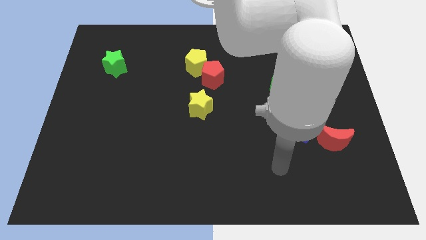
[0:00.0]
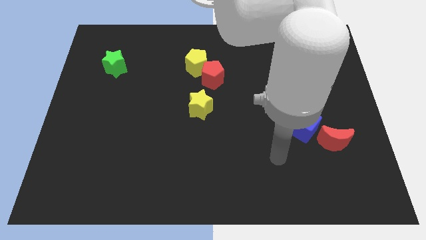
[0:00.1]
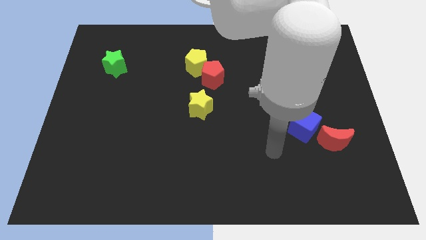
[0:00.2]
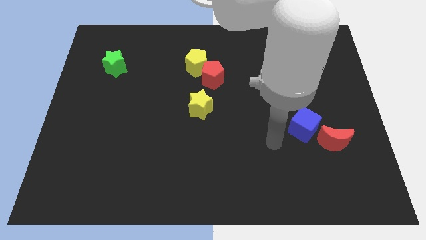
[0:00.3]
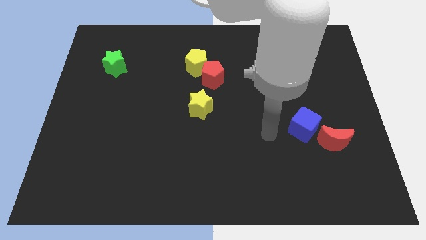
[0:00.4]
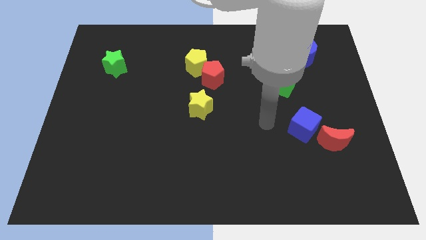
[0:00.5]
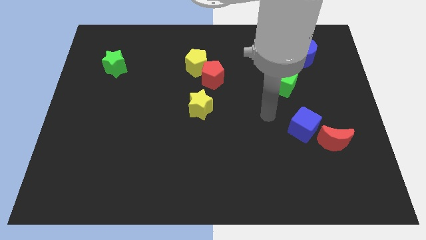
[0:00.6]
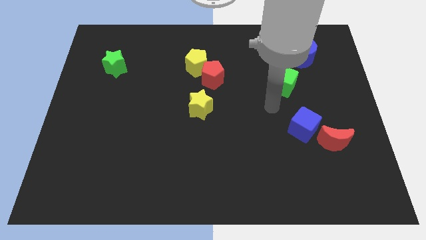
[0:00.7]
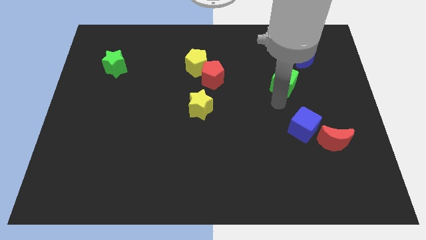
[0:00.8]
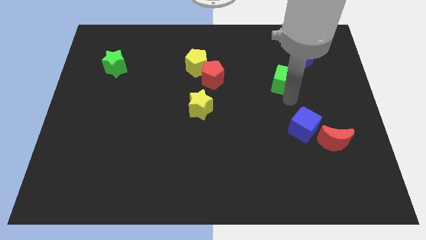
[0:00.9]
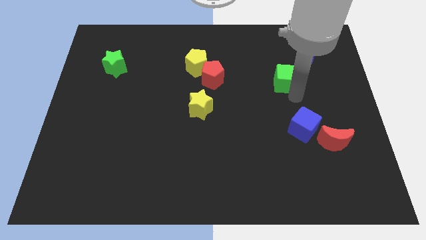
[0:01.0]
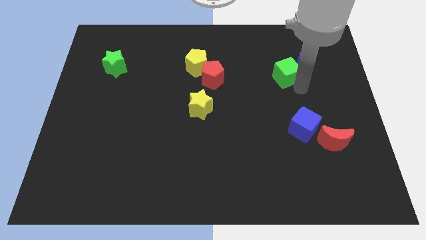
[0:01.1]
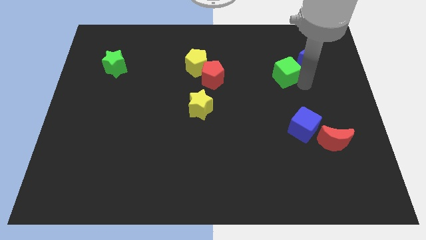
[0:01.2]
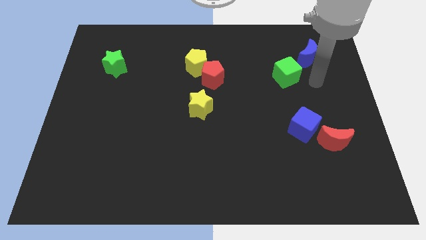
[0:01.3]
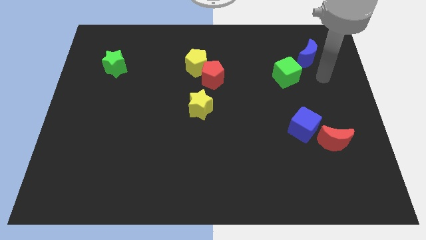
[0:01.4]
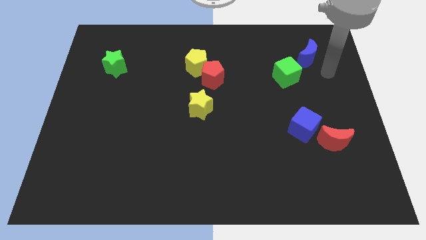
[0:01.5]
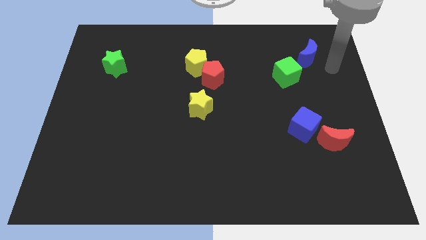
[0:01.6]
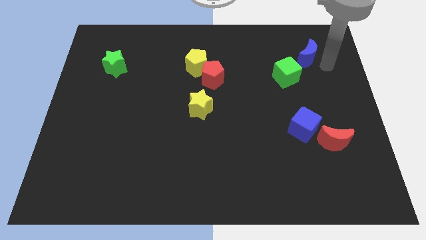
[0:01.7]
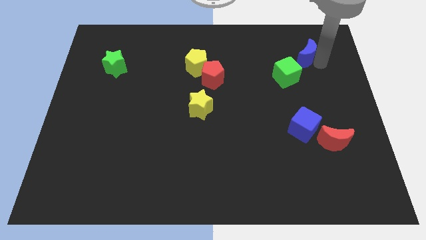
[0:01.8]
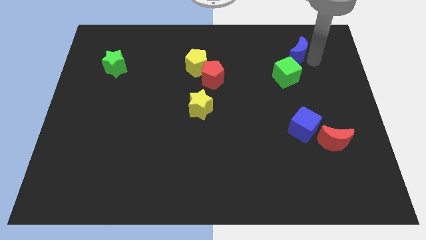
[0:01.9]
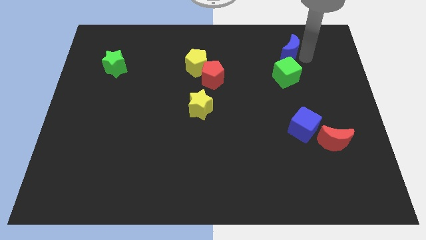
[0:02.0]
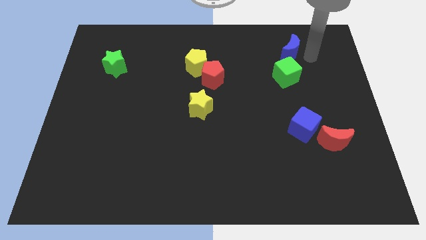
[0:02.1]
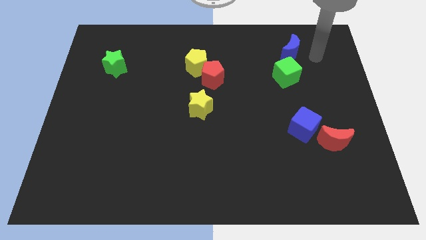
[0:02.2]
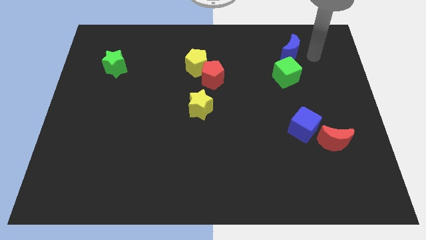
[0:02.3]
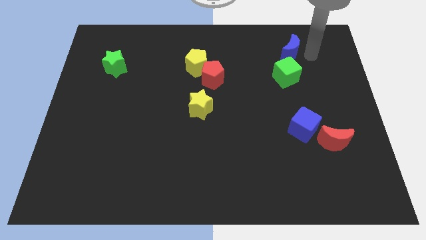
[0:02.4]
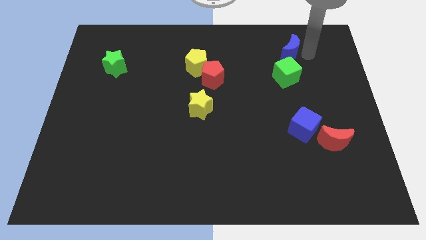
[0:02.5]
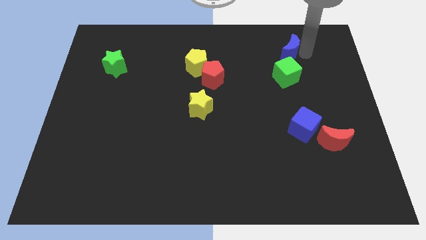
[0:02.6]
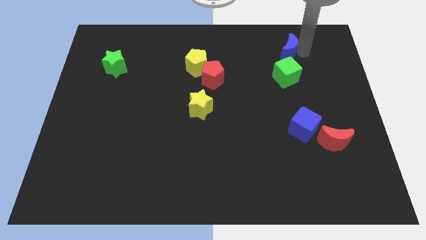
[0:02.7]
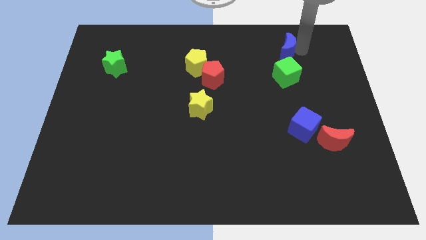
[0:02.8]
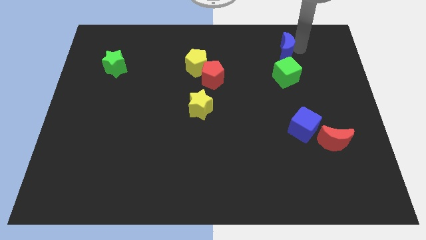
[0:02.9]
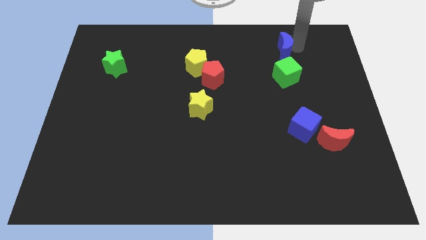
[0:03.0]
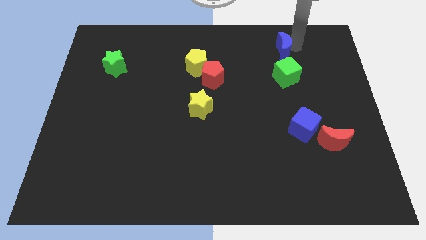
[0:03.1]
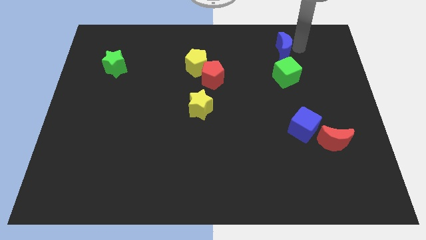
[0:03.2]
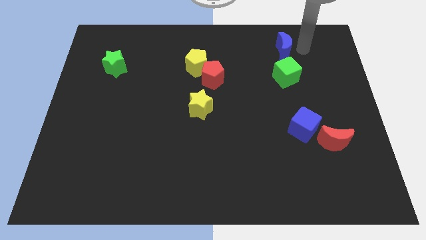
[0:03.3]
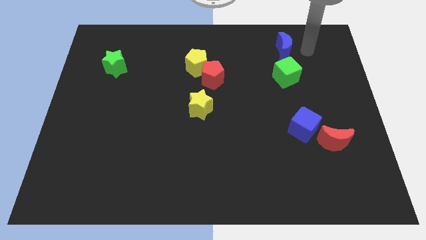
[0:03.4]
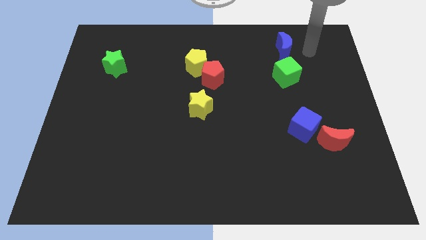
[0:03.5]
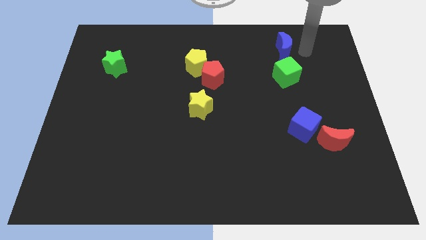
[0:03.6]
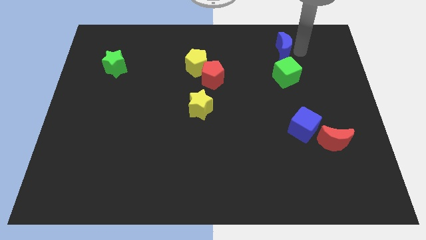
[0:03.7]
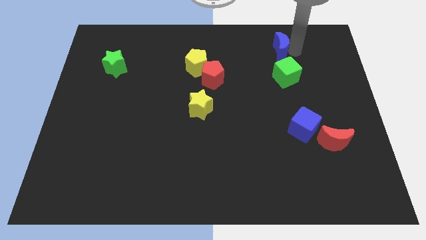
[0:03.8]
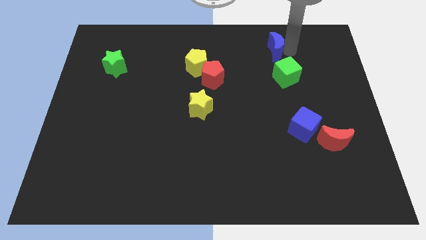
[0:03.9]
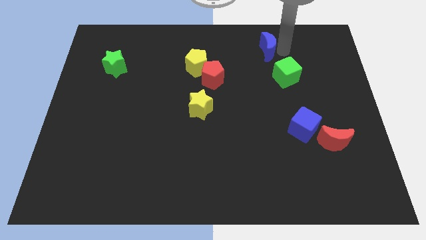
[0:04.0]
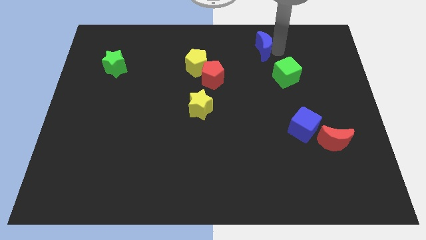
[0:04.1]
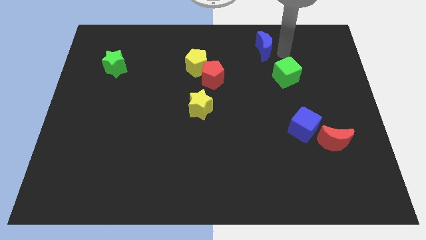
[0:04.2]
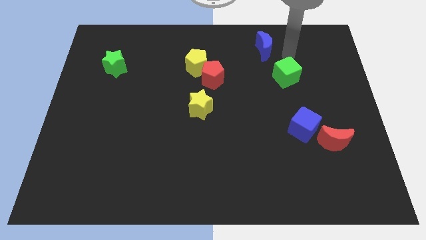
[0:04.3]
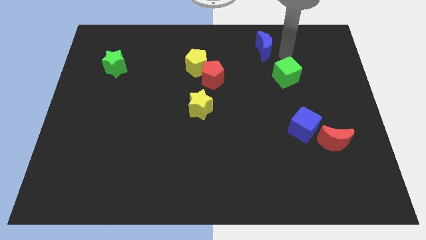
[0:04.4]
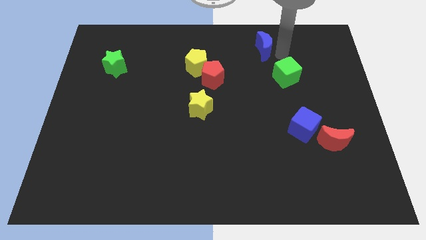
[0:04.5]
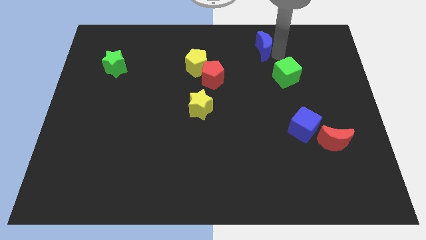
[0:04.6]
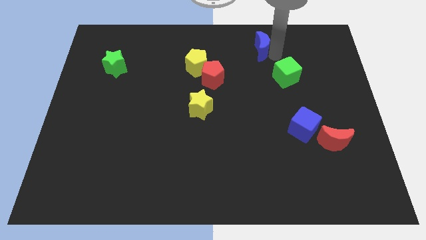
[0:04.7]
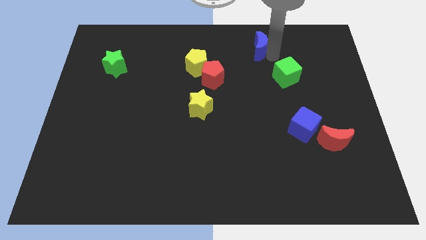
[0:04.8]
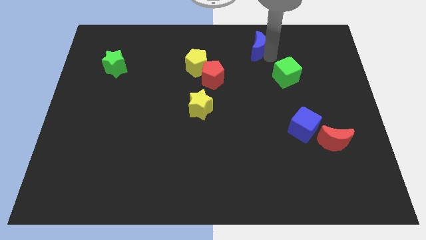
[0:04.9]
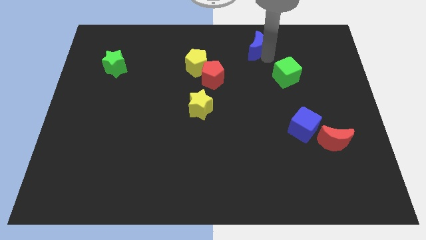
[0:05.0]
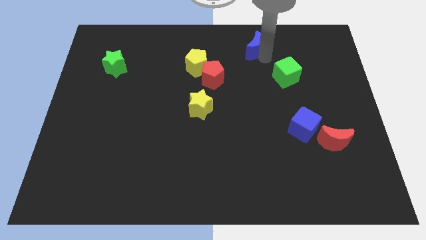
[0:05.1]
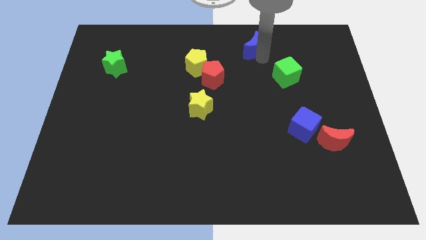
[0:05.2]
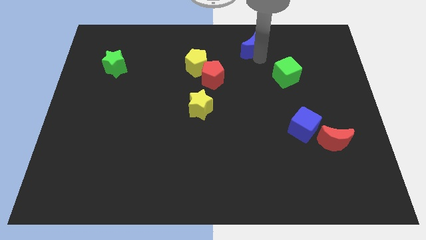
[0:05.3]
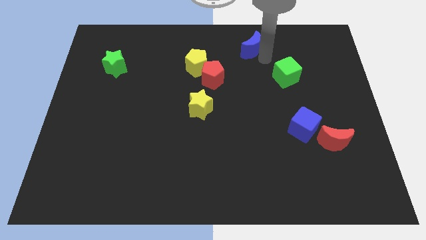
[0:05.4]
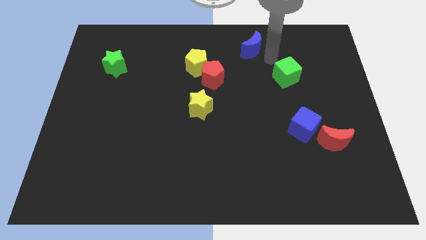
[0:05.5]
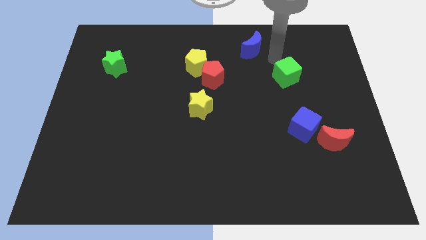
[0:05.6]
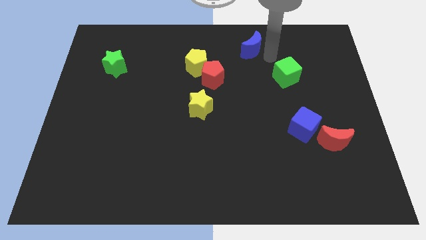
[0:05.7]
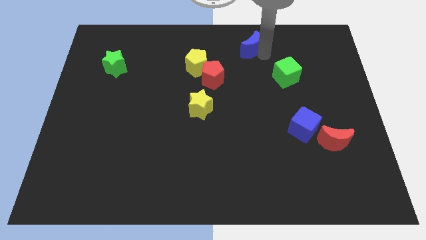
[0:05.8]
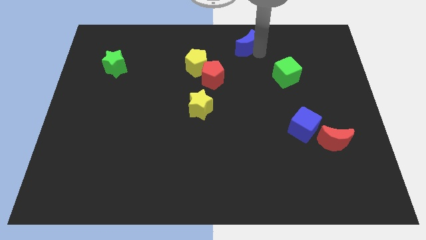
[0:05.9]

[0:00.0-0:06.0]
put the blue moon to the towards your base

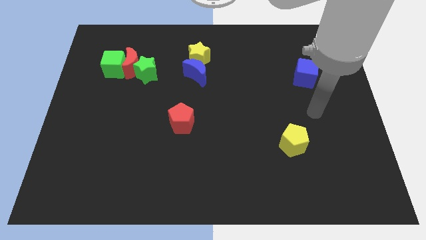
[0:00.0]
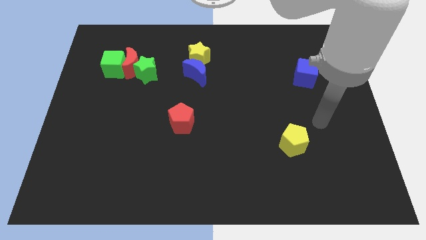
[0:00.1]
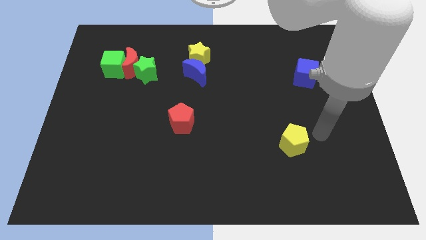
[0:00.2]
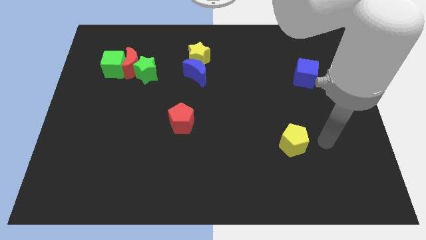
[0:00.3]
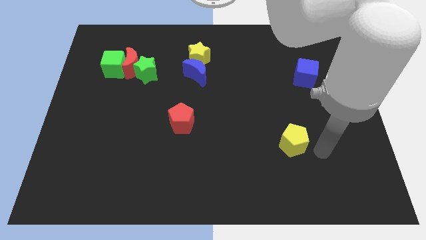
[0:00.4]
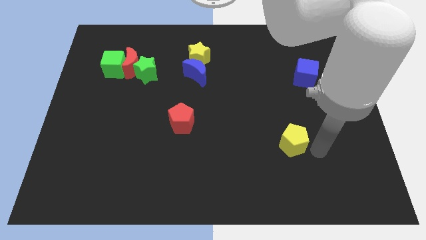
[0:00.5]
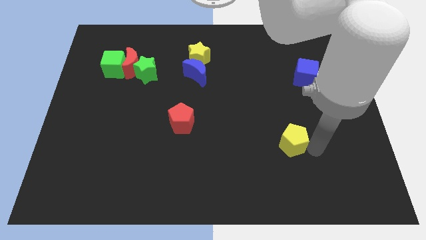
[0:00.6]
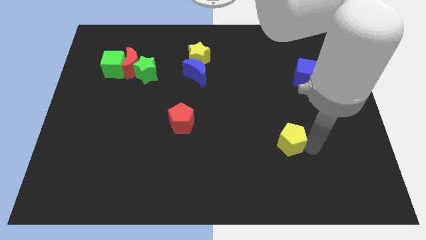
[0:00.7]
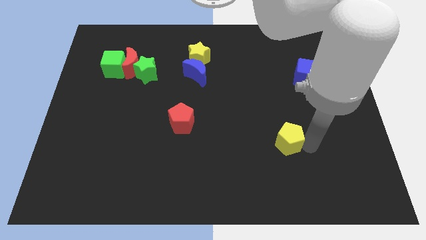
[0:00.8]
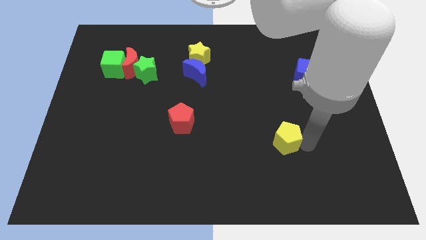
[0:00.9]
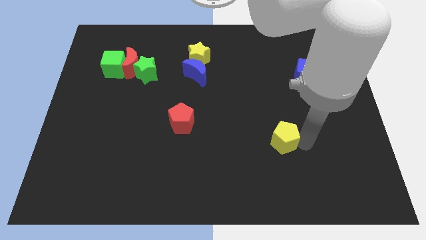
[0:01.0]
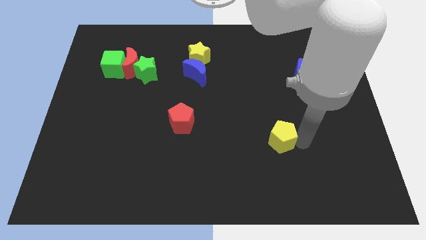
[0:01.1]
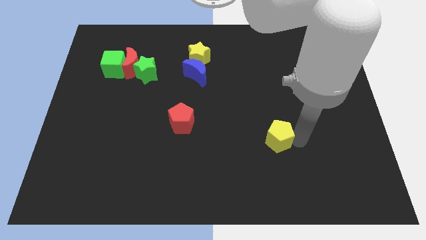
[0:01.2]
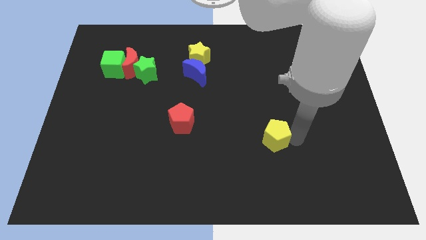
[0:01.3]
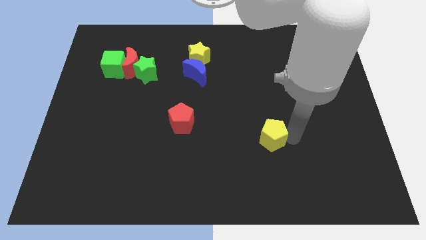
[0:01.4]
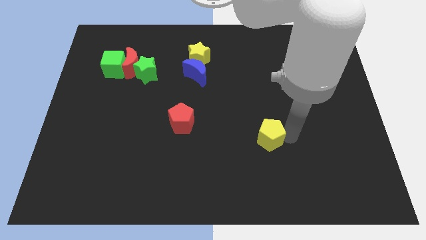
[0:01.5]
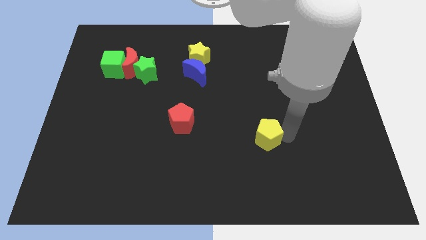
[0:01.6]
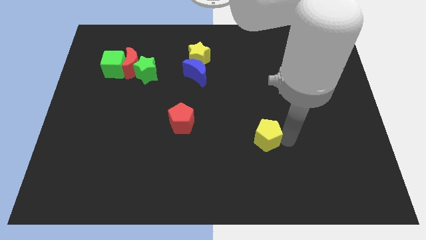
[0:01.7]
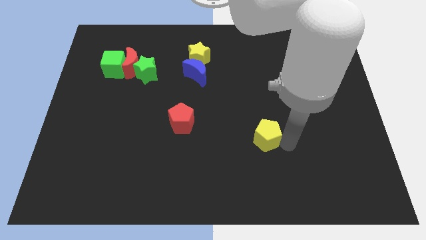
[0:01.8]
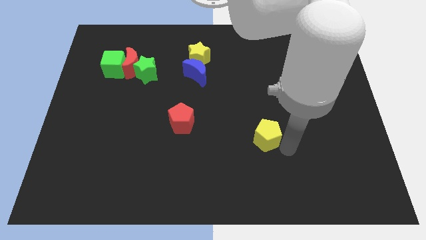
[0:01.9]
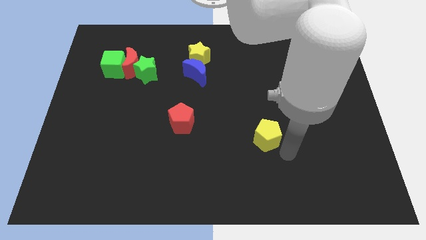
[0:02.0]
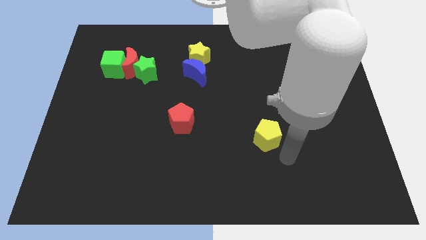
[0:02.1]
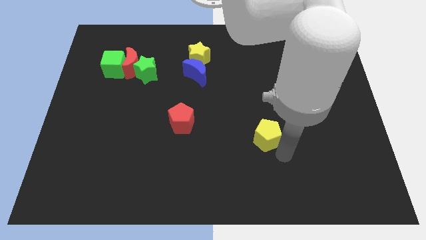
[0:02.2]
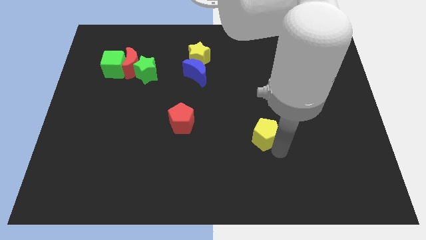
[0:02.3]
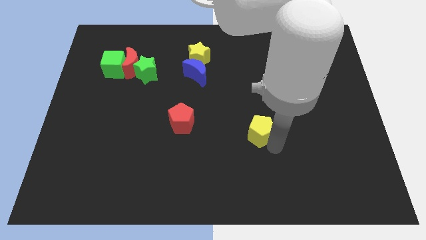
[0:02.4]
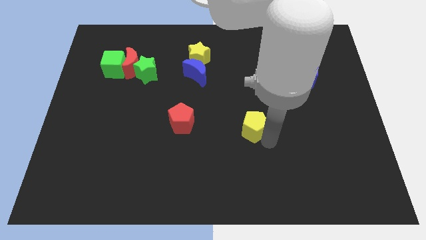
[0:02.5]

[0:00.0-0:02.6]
slide the yellow pentagon to the middle
